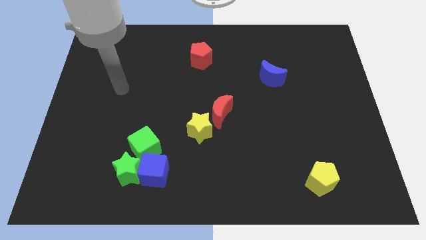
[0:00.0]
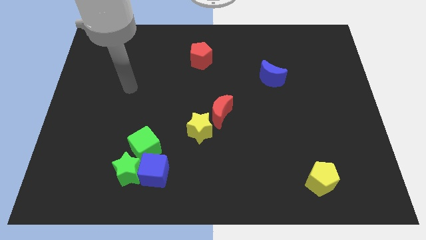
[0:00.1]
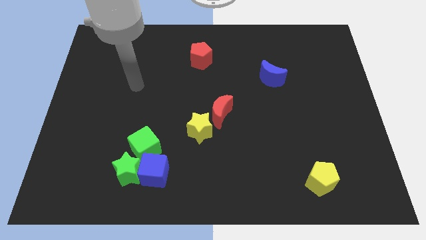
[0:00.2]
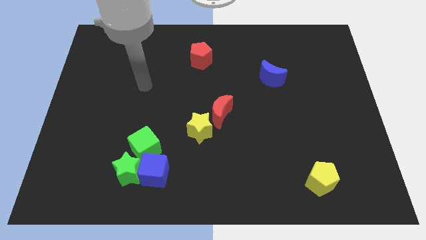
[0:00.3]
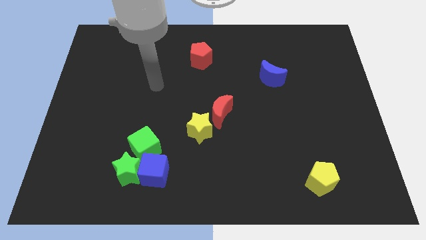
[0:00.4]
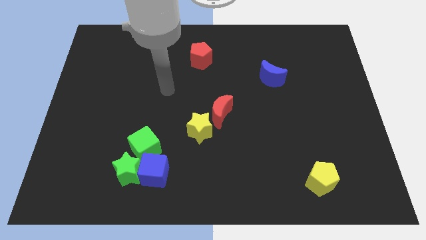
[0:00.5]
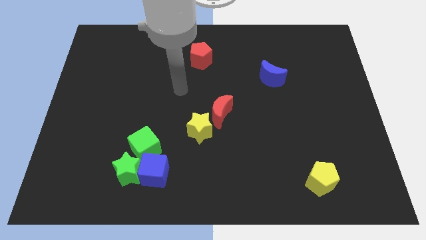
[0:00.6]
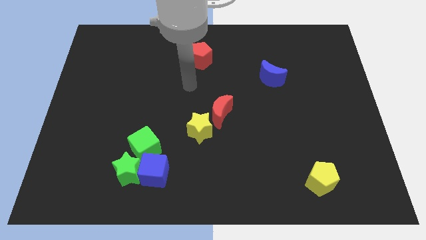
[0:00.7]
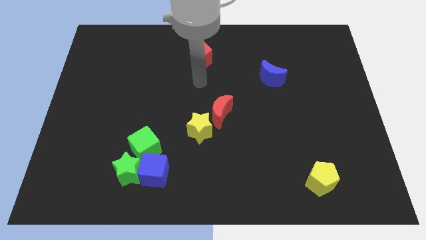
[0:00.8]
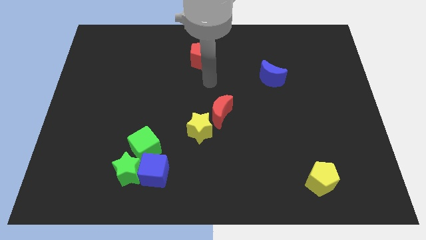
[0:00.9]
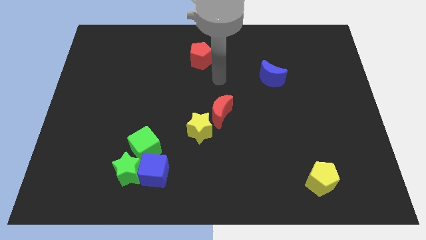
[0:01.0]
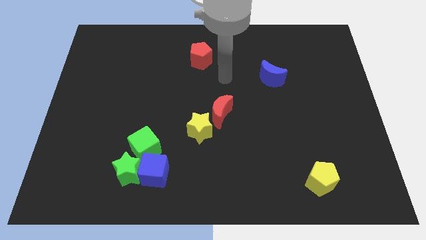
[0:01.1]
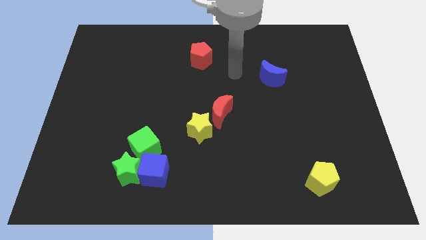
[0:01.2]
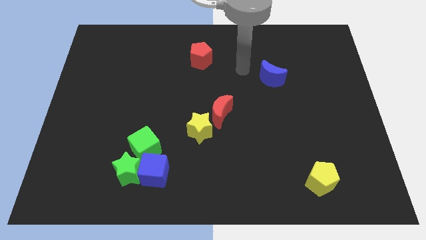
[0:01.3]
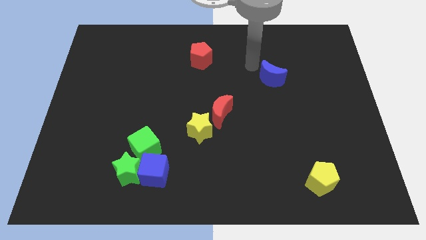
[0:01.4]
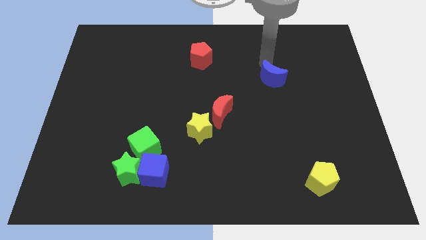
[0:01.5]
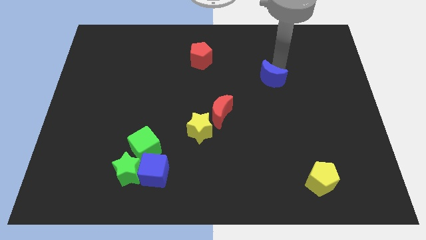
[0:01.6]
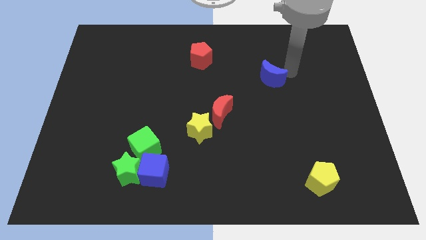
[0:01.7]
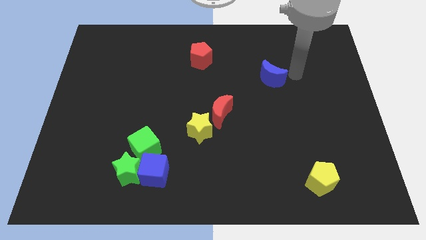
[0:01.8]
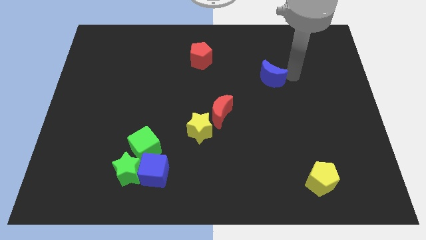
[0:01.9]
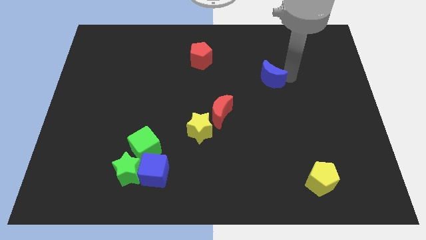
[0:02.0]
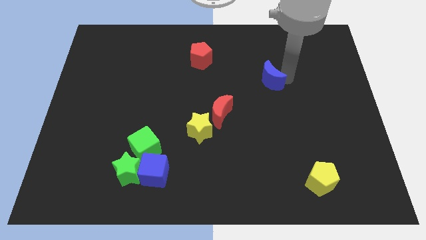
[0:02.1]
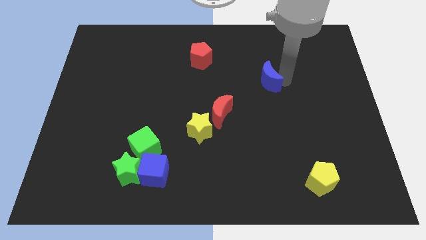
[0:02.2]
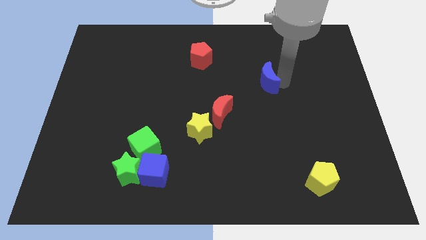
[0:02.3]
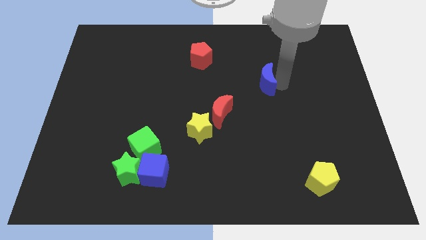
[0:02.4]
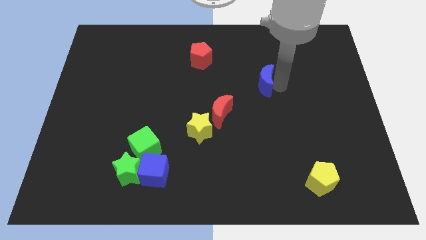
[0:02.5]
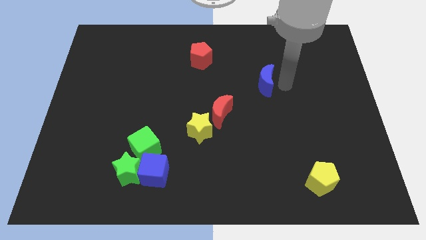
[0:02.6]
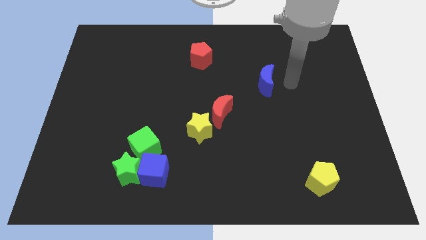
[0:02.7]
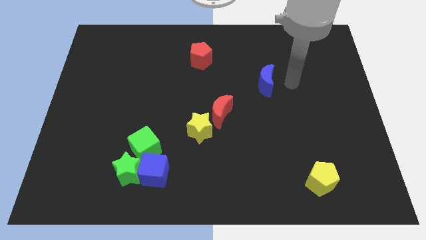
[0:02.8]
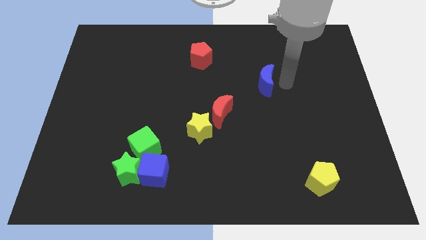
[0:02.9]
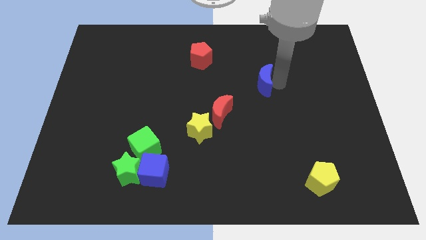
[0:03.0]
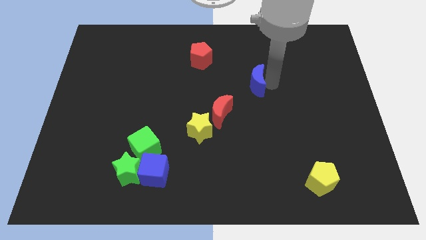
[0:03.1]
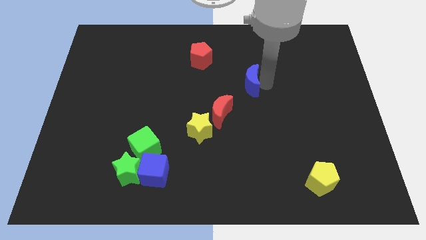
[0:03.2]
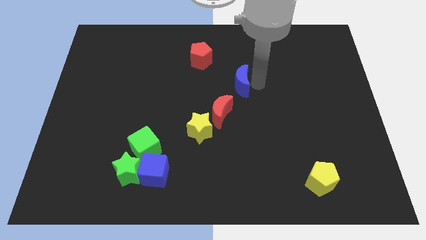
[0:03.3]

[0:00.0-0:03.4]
push the blue moon slightly to the left

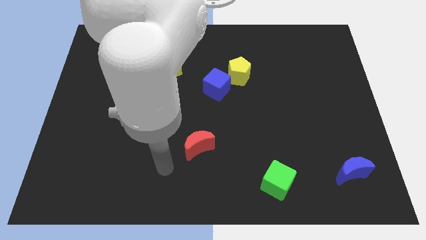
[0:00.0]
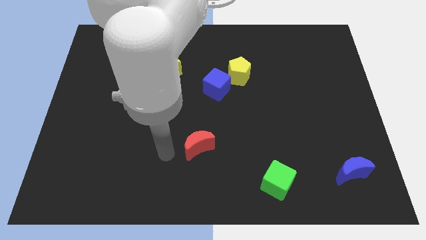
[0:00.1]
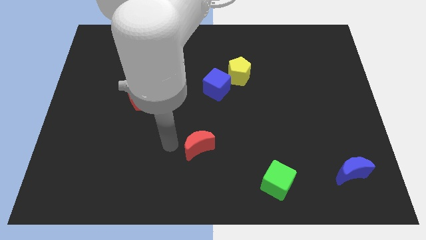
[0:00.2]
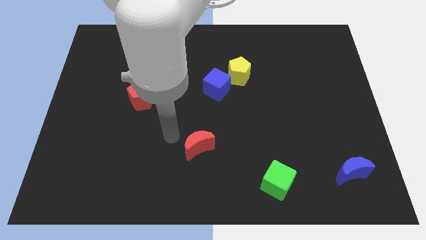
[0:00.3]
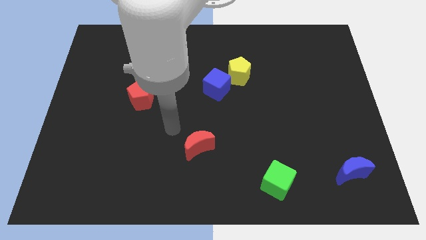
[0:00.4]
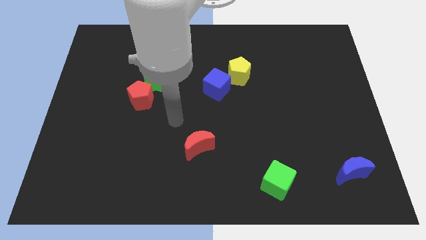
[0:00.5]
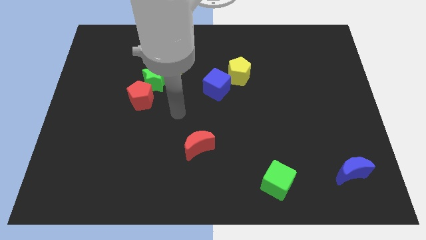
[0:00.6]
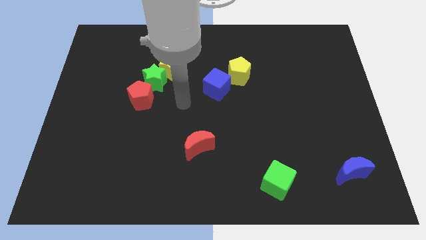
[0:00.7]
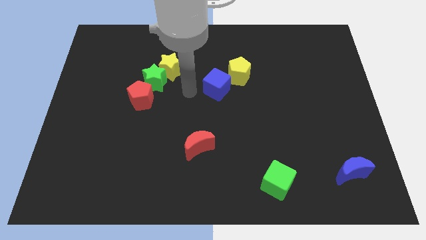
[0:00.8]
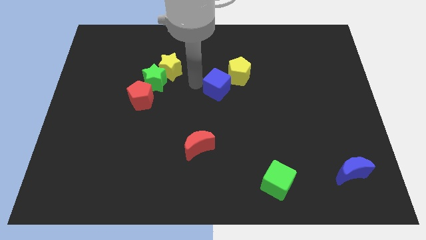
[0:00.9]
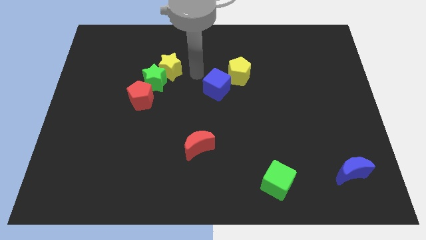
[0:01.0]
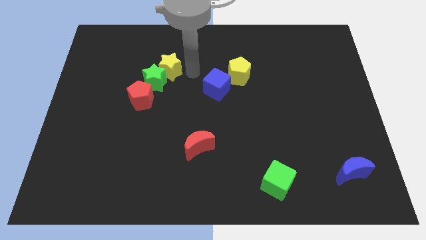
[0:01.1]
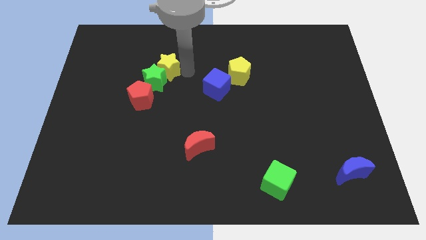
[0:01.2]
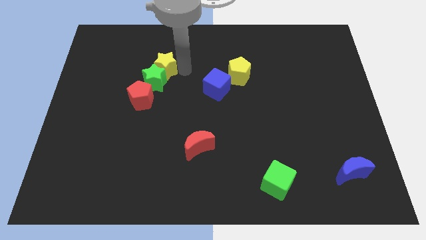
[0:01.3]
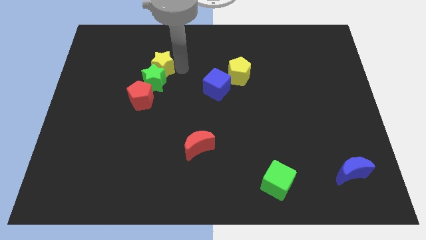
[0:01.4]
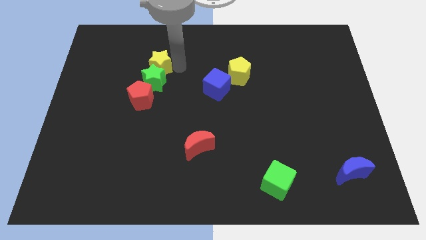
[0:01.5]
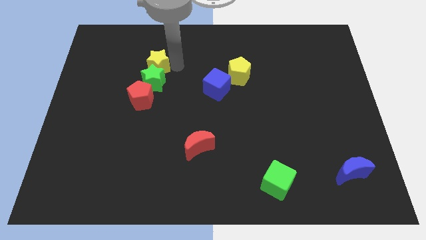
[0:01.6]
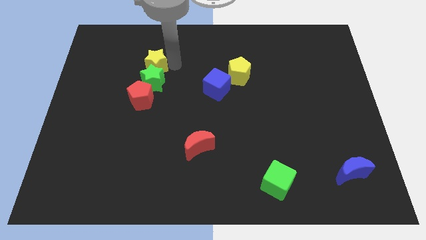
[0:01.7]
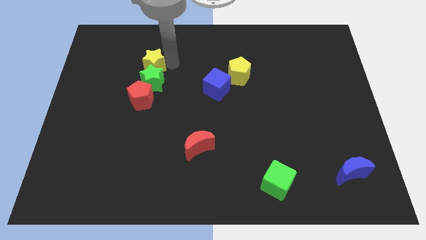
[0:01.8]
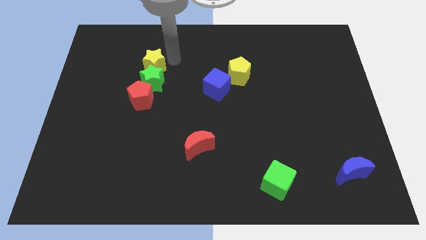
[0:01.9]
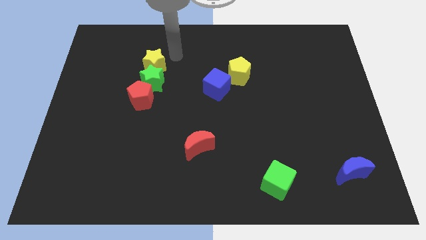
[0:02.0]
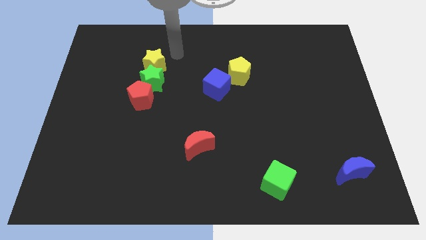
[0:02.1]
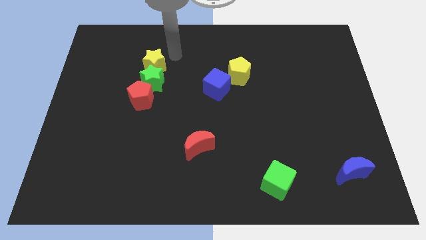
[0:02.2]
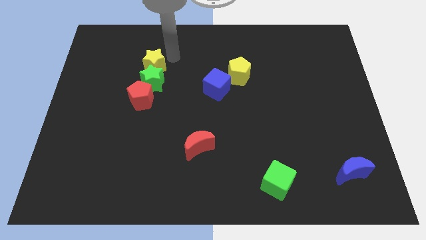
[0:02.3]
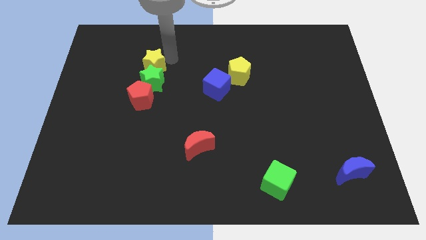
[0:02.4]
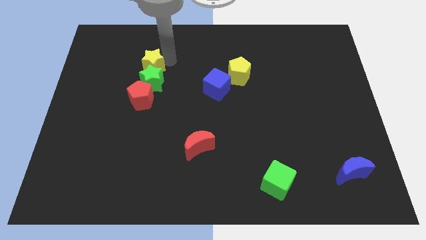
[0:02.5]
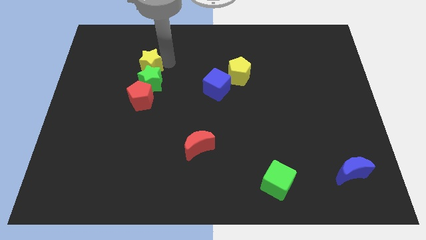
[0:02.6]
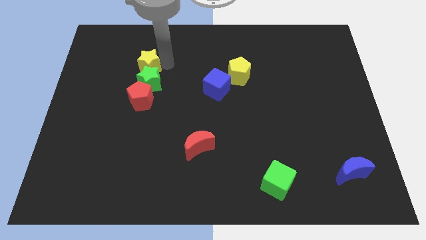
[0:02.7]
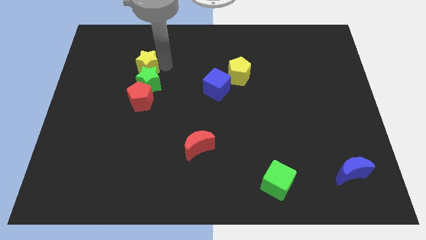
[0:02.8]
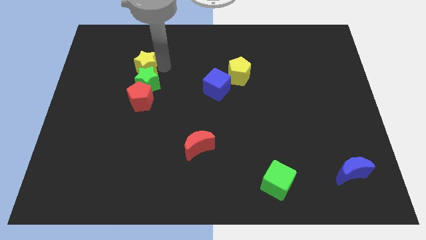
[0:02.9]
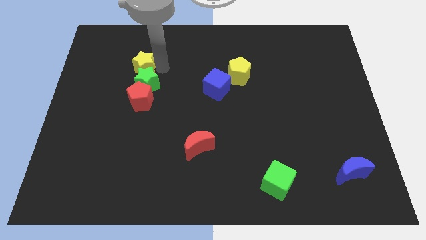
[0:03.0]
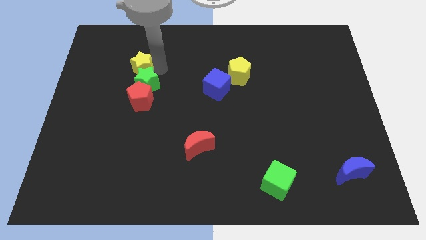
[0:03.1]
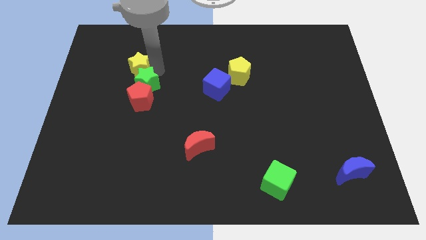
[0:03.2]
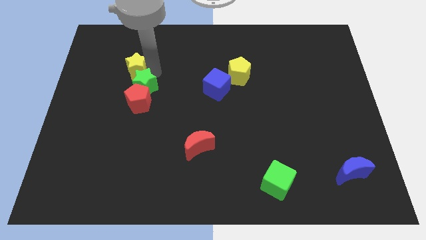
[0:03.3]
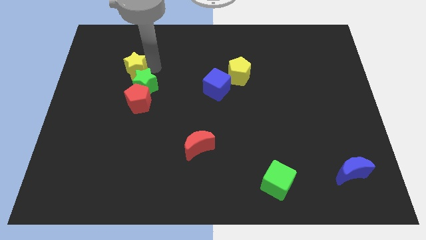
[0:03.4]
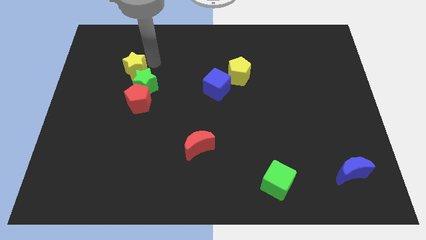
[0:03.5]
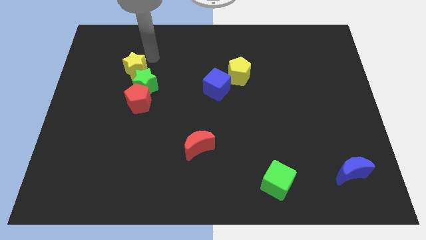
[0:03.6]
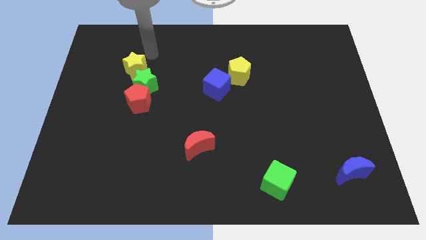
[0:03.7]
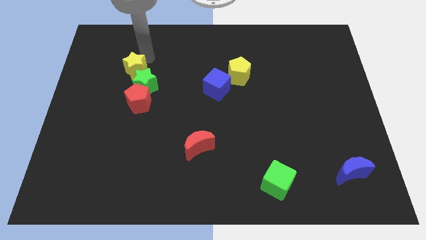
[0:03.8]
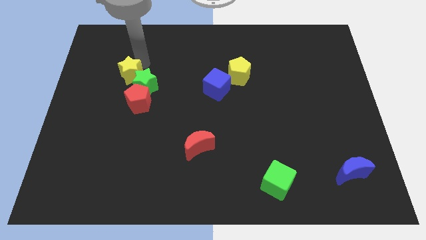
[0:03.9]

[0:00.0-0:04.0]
push the yellow star downwards and left diagonally a little bit

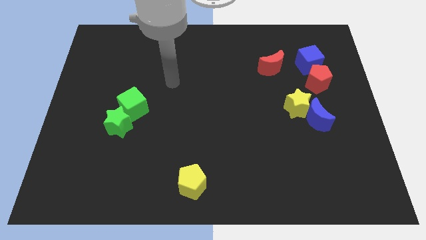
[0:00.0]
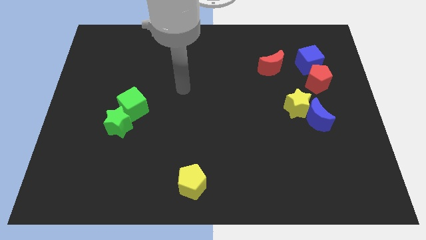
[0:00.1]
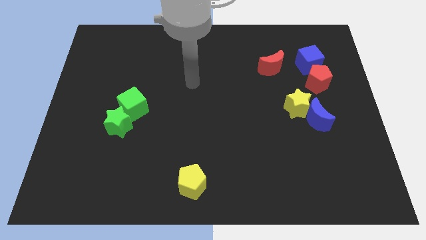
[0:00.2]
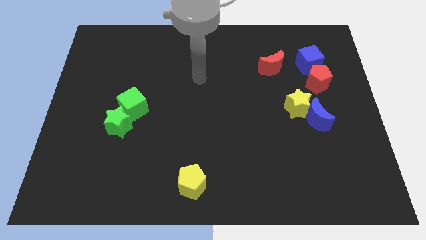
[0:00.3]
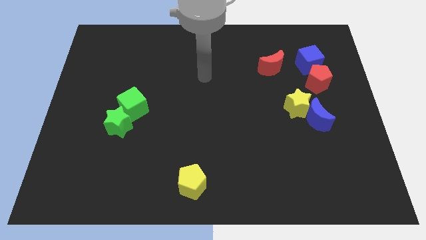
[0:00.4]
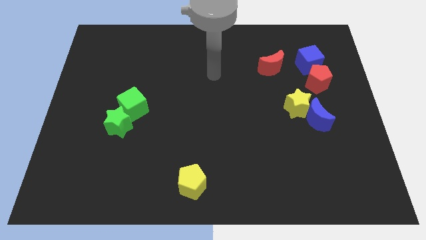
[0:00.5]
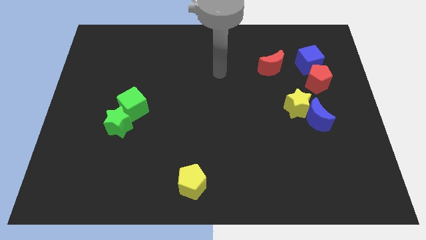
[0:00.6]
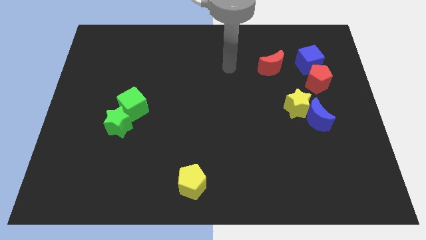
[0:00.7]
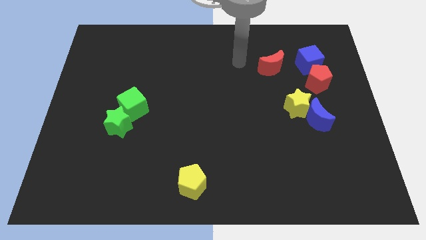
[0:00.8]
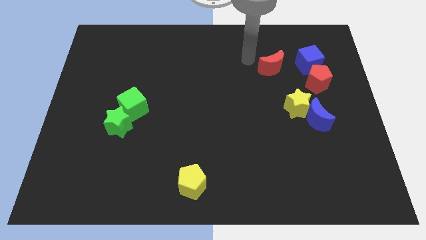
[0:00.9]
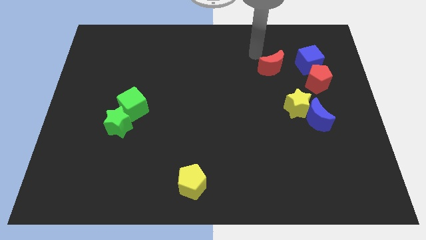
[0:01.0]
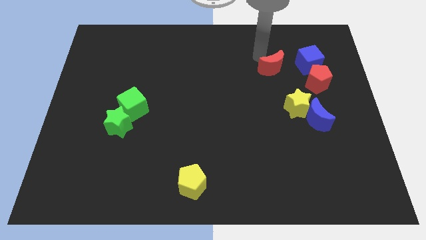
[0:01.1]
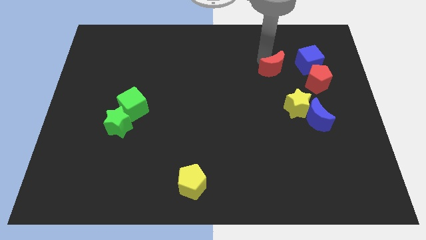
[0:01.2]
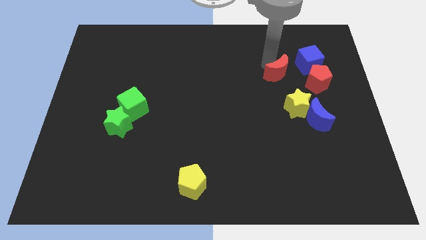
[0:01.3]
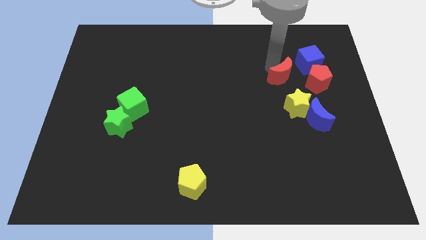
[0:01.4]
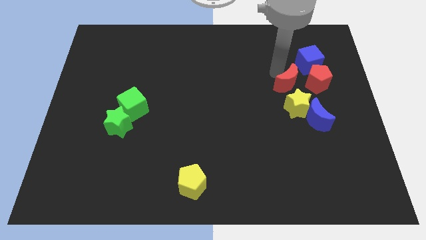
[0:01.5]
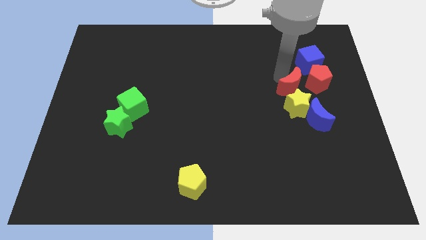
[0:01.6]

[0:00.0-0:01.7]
push the red moon somewhat downwards and right
